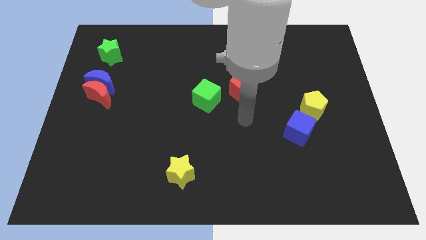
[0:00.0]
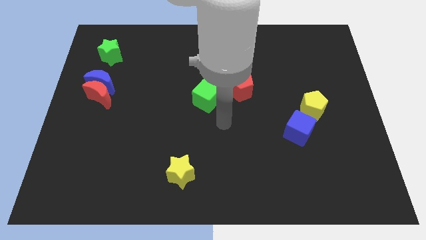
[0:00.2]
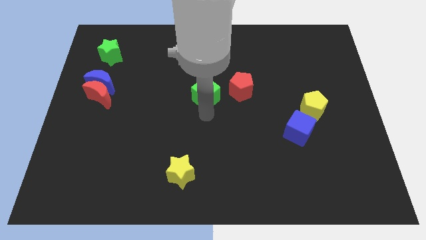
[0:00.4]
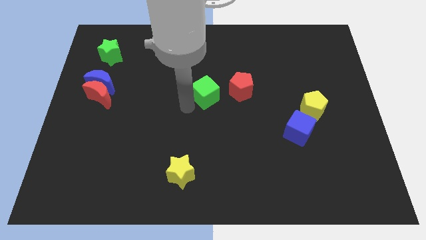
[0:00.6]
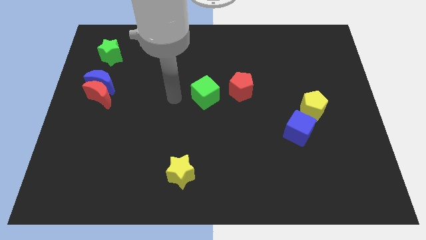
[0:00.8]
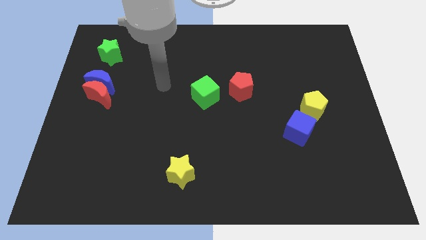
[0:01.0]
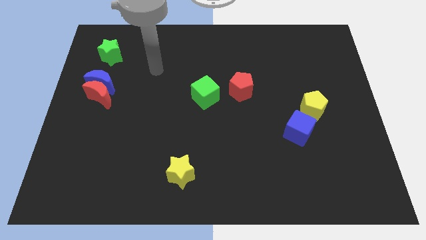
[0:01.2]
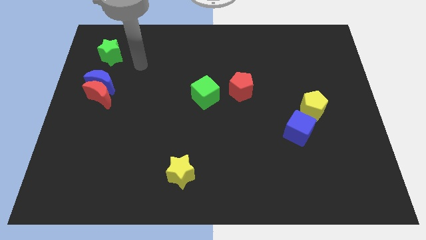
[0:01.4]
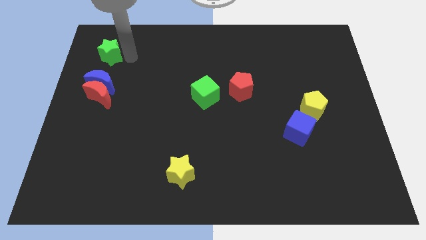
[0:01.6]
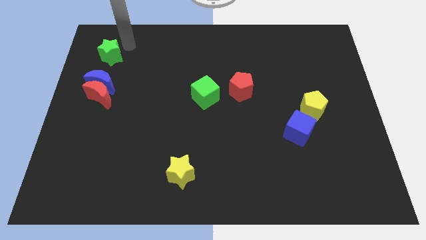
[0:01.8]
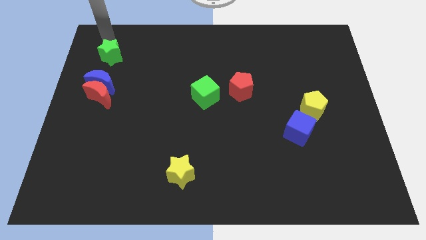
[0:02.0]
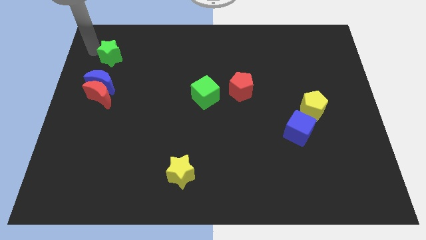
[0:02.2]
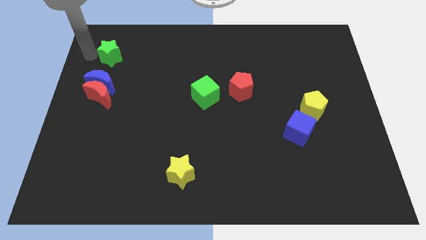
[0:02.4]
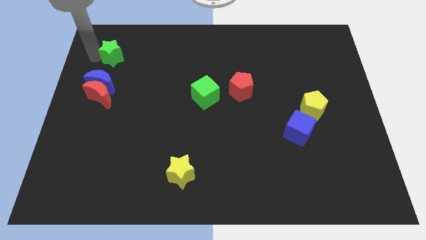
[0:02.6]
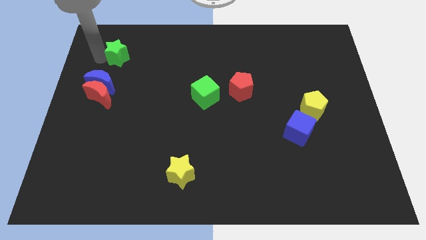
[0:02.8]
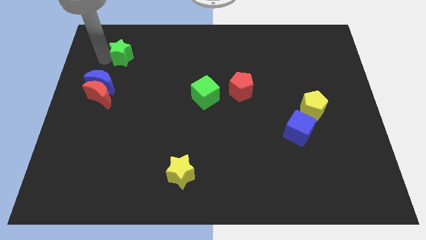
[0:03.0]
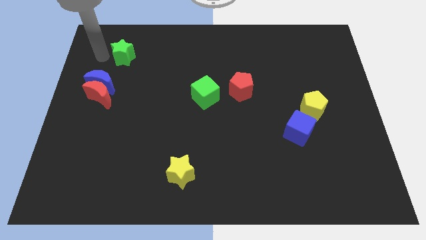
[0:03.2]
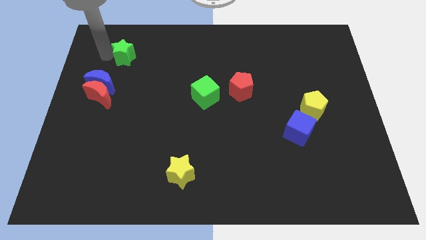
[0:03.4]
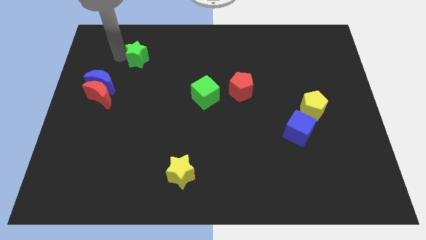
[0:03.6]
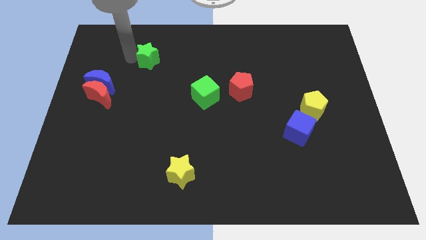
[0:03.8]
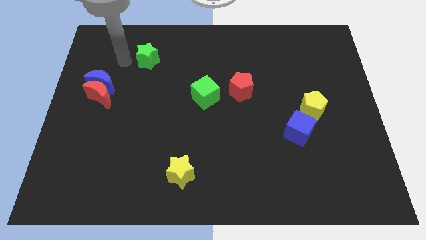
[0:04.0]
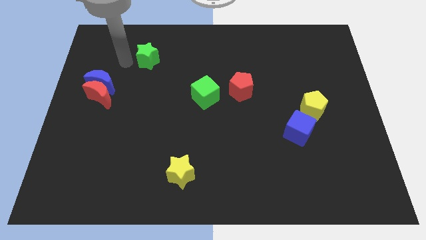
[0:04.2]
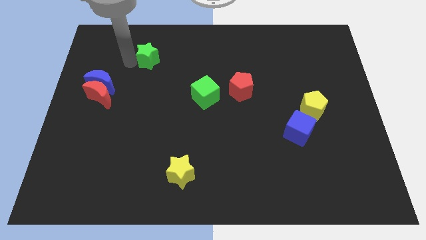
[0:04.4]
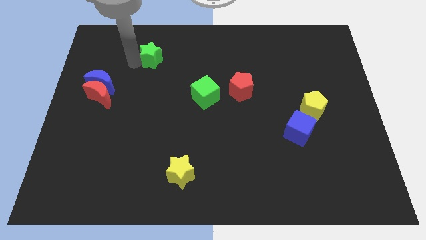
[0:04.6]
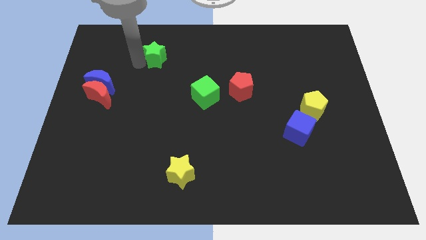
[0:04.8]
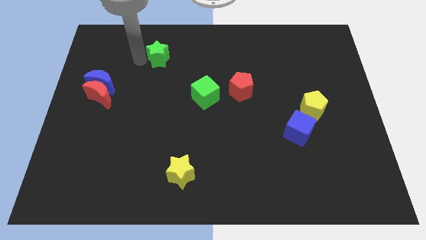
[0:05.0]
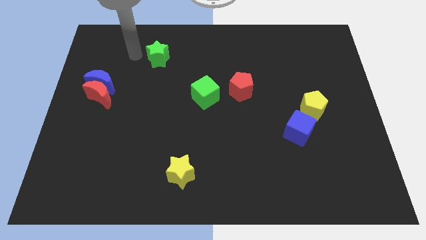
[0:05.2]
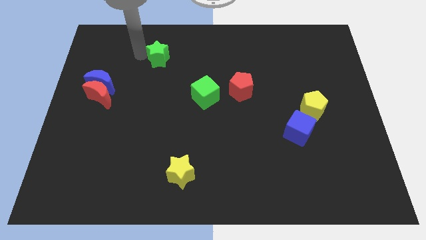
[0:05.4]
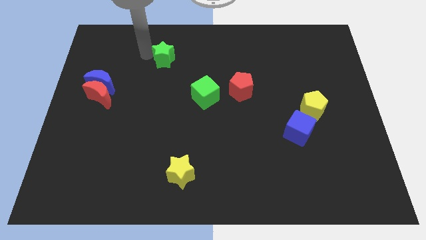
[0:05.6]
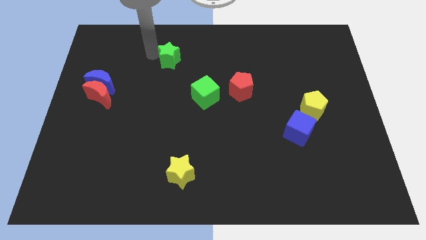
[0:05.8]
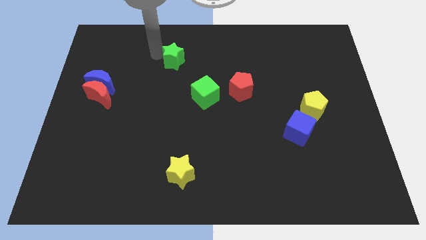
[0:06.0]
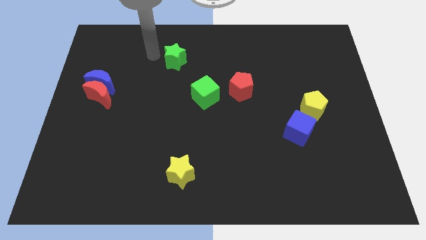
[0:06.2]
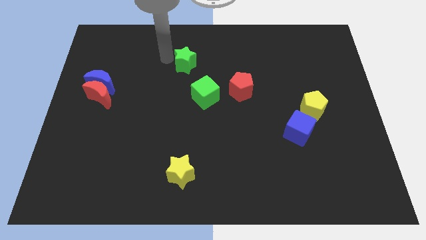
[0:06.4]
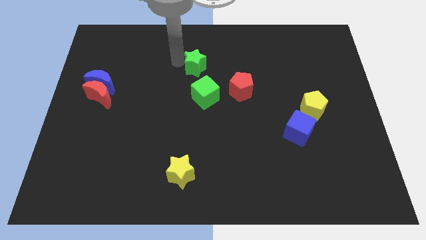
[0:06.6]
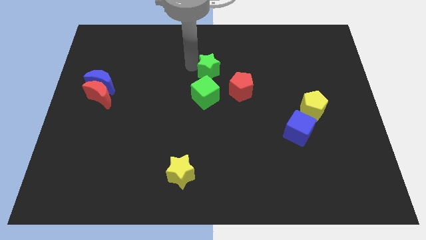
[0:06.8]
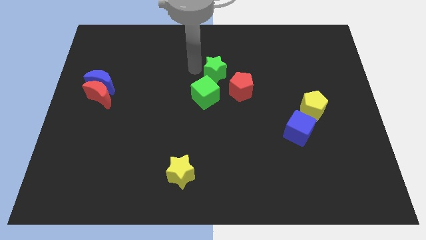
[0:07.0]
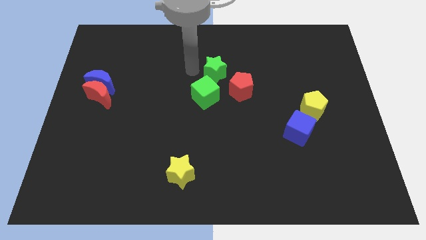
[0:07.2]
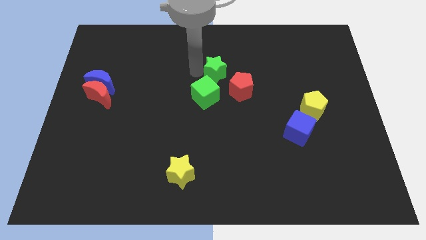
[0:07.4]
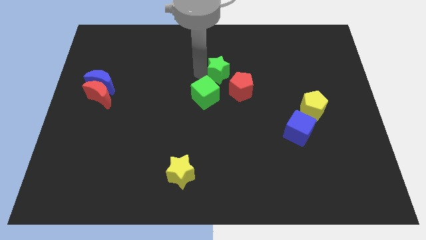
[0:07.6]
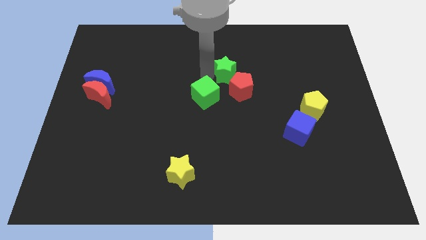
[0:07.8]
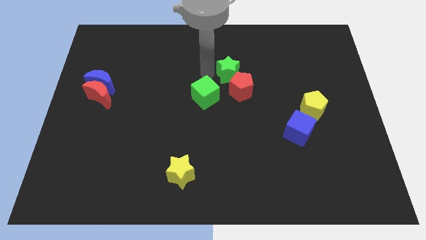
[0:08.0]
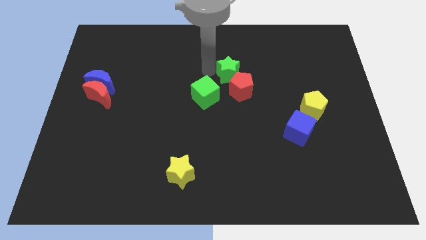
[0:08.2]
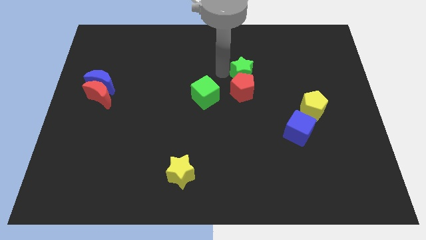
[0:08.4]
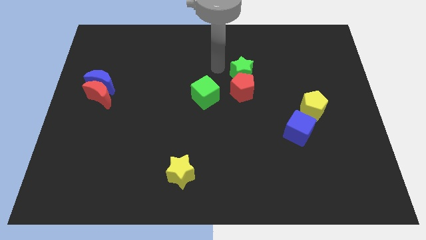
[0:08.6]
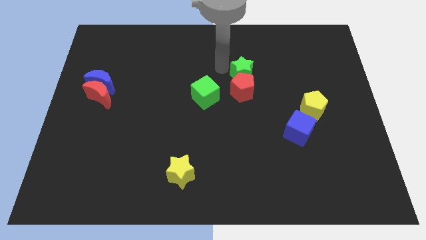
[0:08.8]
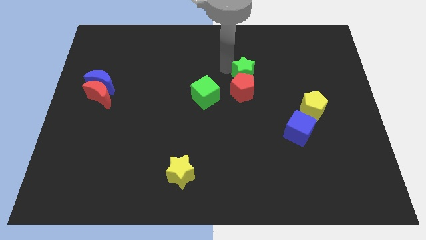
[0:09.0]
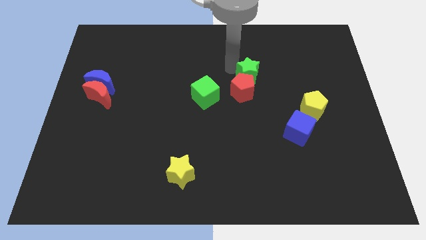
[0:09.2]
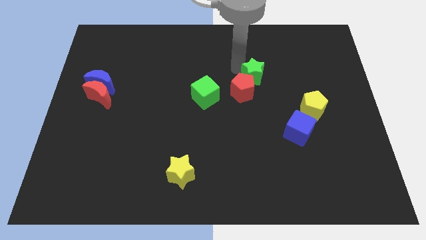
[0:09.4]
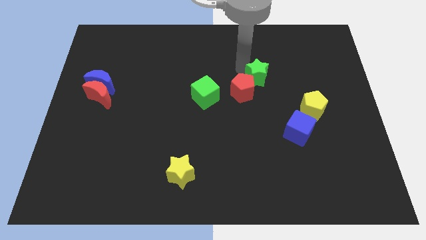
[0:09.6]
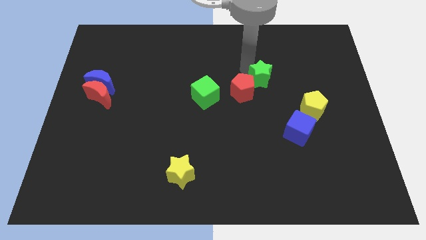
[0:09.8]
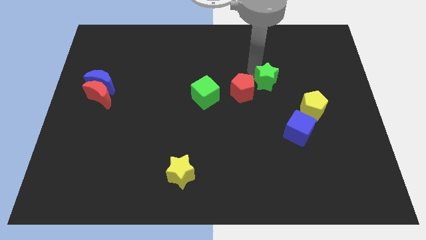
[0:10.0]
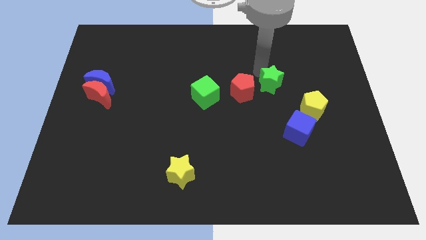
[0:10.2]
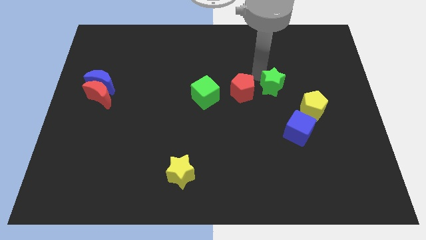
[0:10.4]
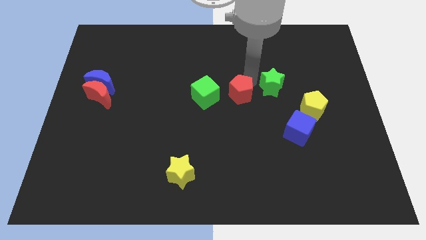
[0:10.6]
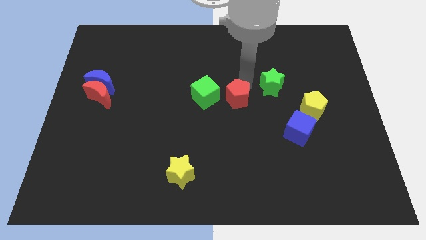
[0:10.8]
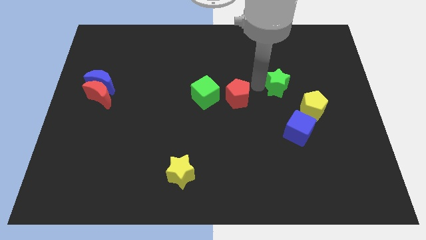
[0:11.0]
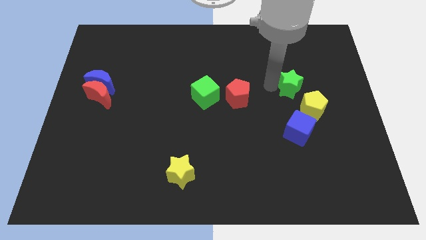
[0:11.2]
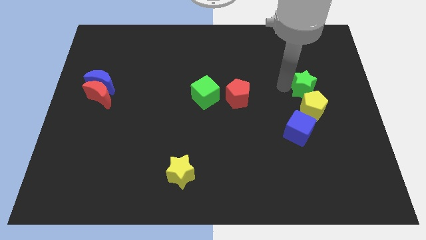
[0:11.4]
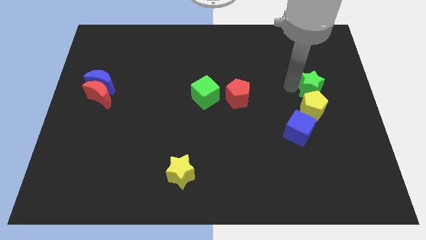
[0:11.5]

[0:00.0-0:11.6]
move the green star to the top right side of the yellow pentagon

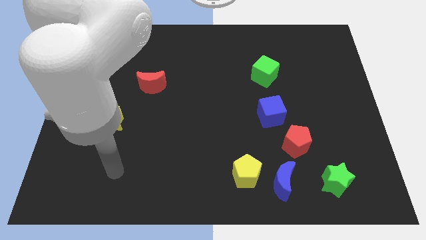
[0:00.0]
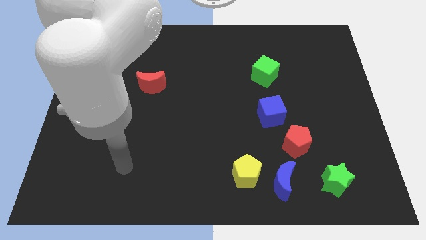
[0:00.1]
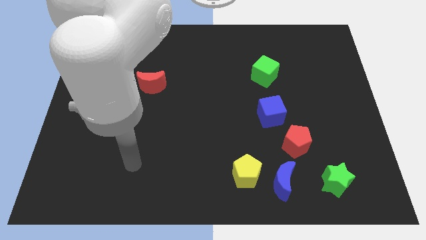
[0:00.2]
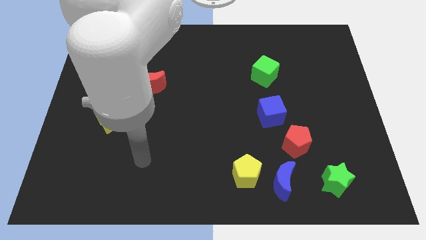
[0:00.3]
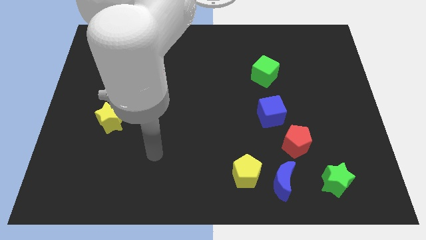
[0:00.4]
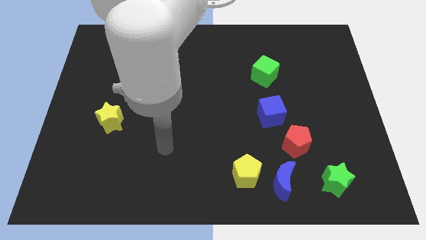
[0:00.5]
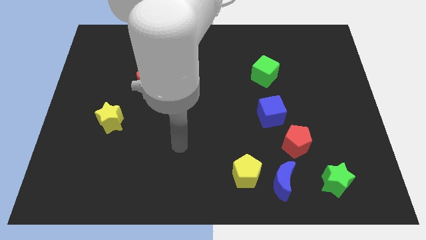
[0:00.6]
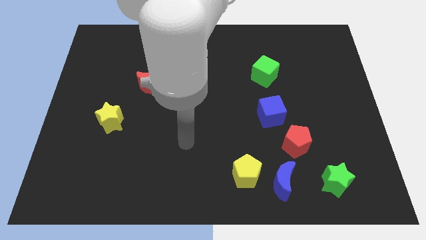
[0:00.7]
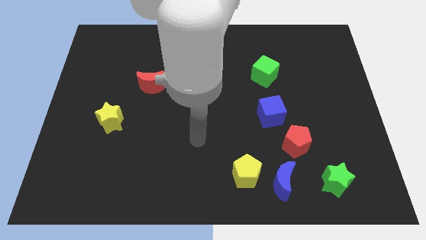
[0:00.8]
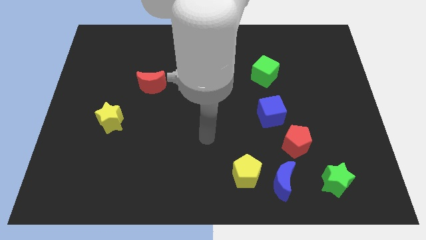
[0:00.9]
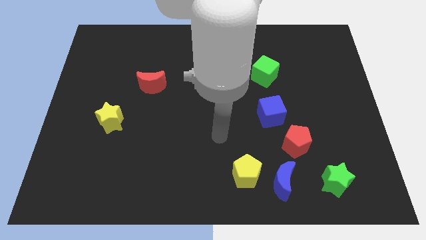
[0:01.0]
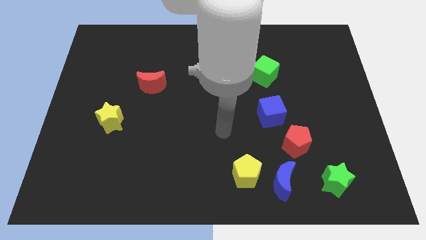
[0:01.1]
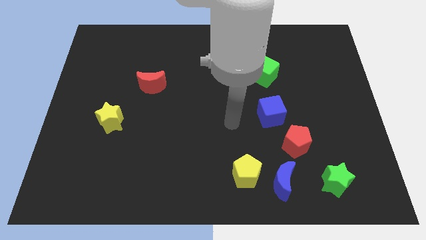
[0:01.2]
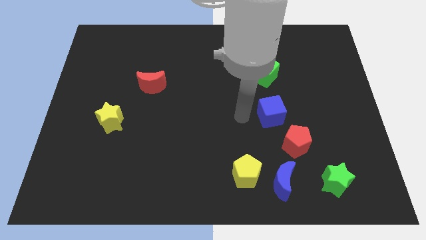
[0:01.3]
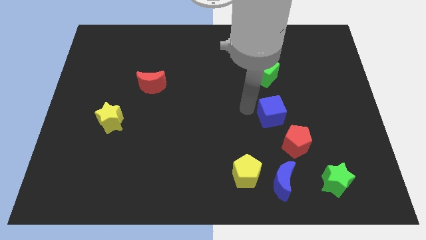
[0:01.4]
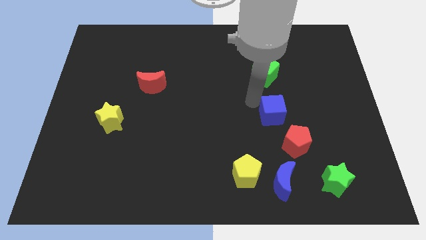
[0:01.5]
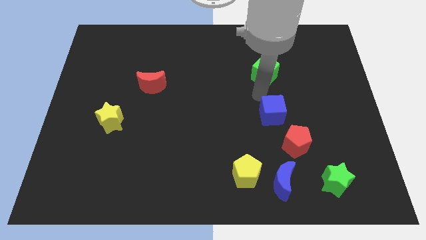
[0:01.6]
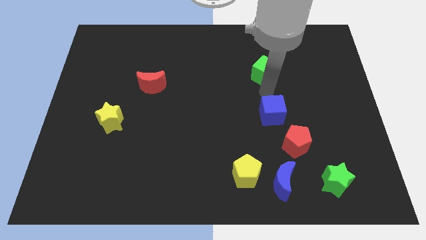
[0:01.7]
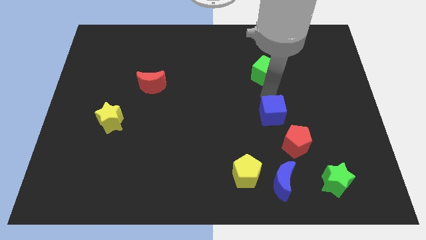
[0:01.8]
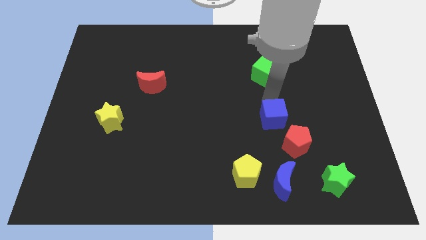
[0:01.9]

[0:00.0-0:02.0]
move the blue cube to the top side of the blue moon
